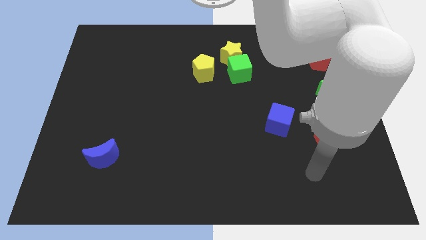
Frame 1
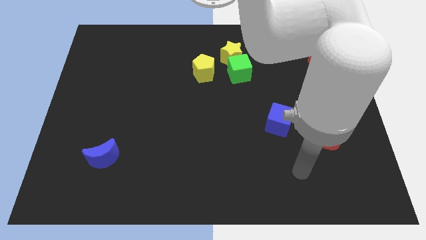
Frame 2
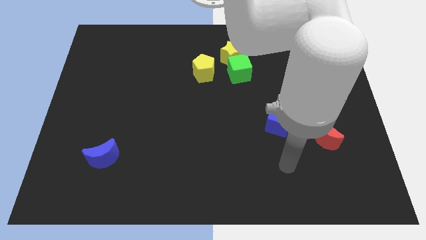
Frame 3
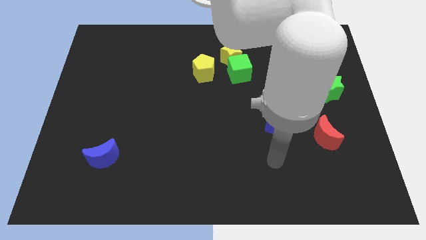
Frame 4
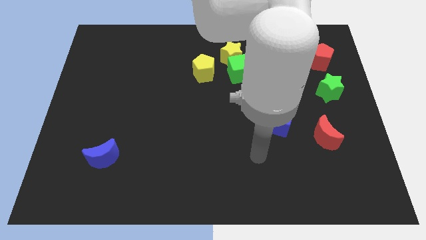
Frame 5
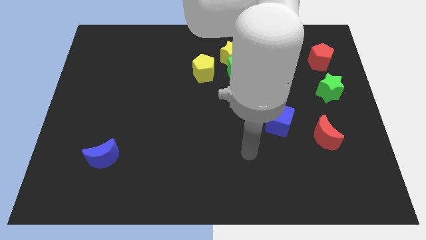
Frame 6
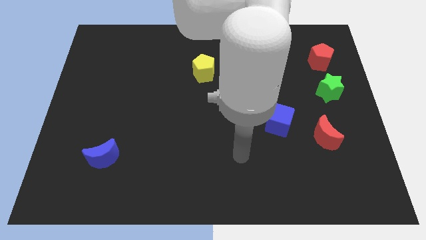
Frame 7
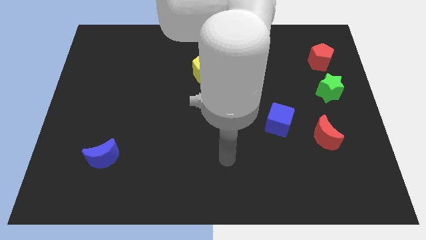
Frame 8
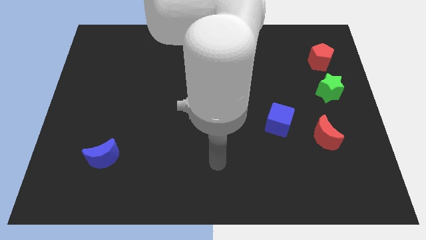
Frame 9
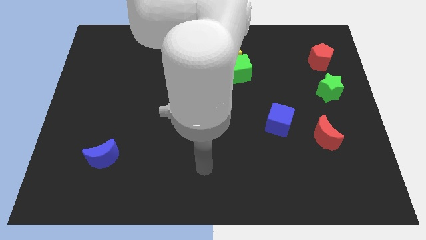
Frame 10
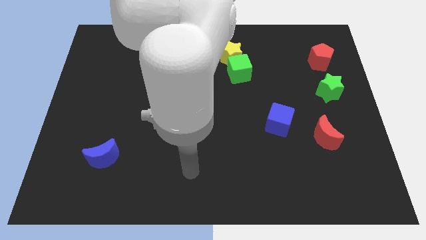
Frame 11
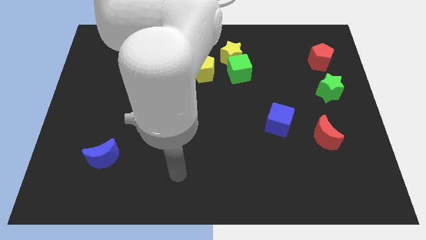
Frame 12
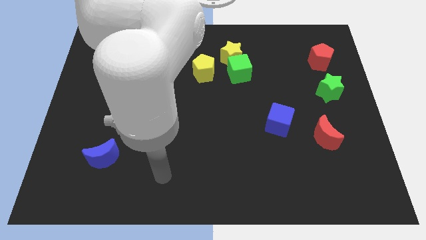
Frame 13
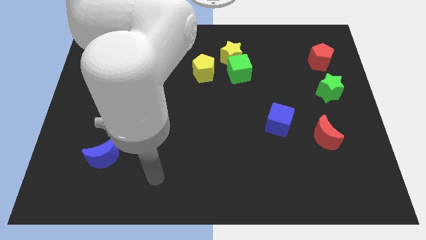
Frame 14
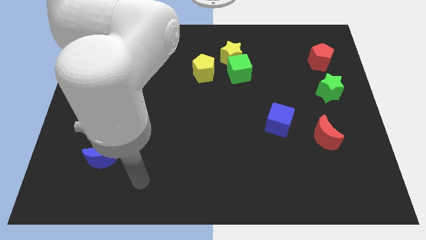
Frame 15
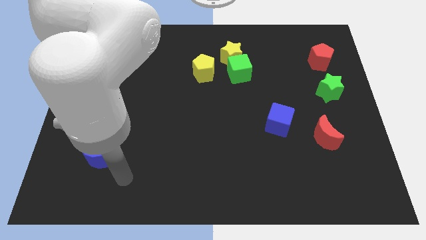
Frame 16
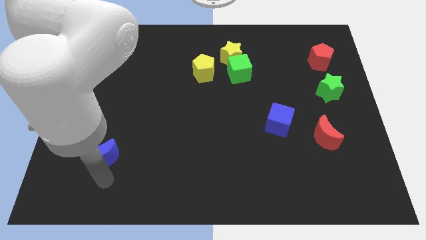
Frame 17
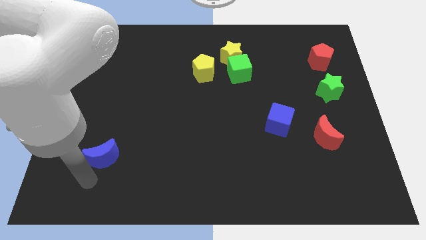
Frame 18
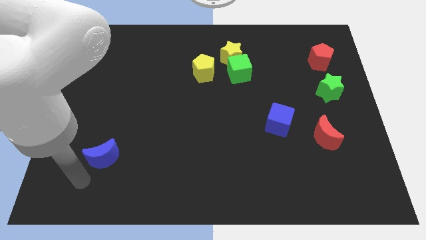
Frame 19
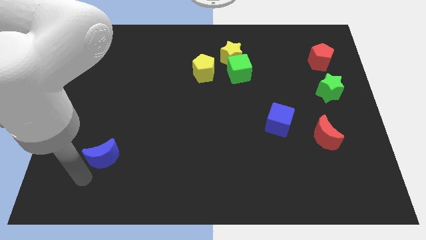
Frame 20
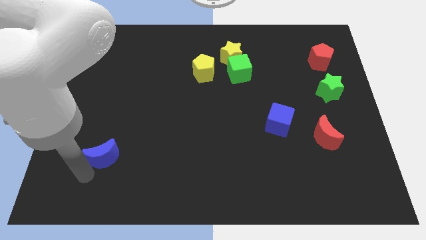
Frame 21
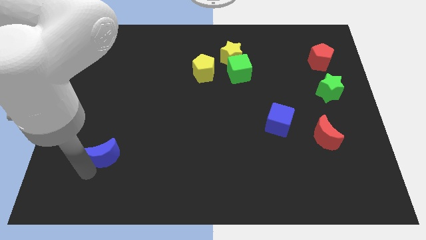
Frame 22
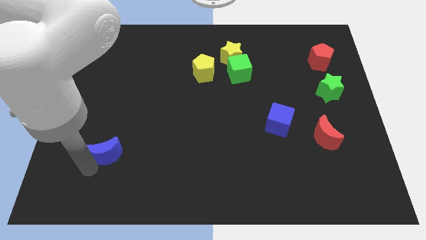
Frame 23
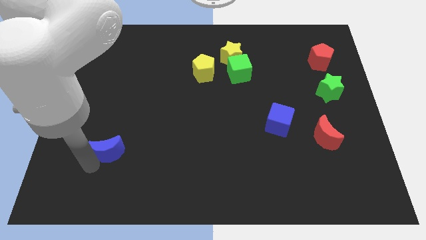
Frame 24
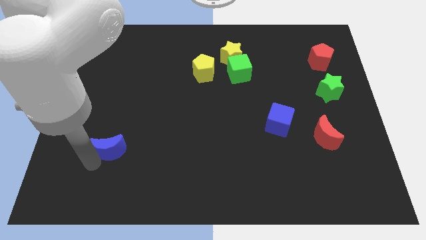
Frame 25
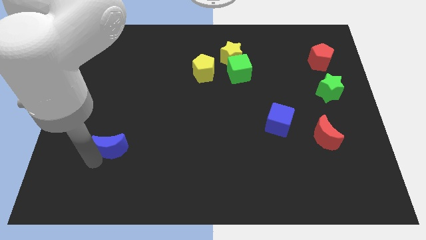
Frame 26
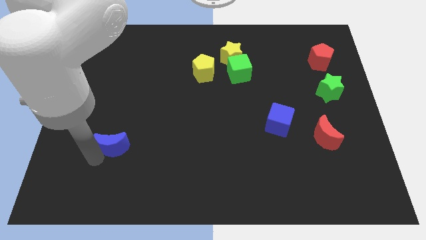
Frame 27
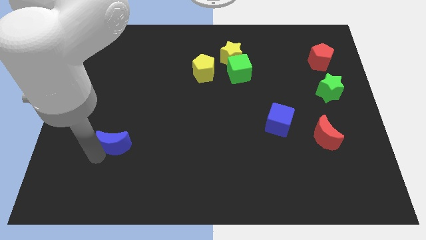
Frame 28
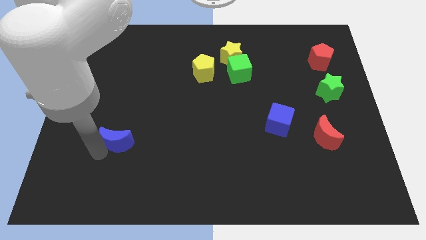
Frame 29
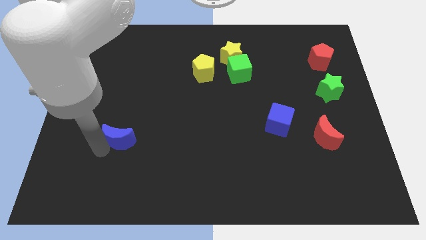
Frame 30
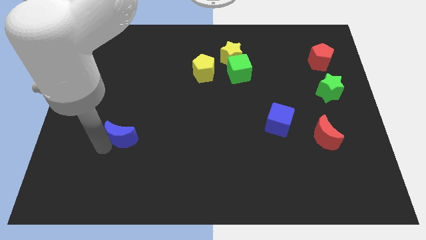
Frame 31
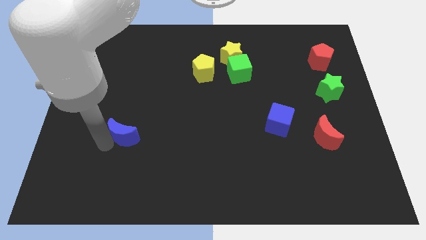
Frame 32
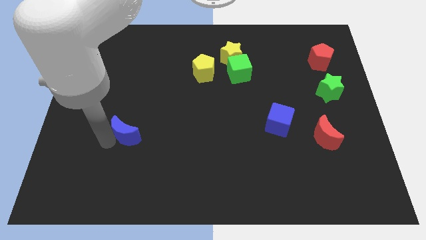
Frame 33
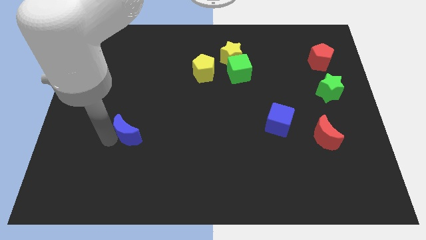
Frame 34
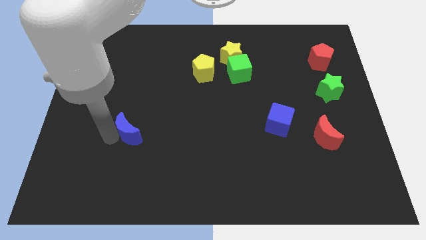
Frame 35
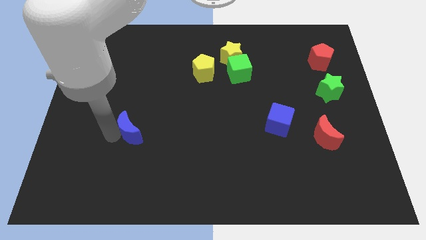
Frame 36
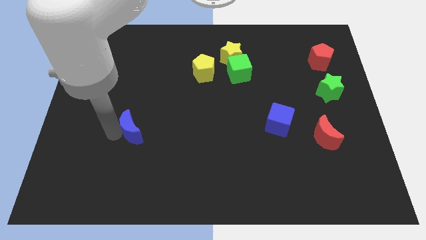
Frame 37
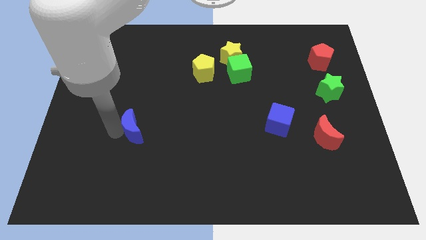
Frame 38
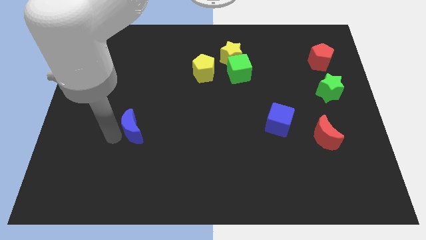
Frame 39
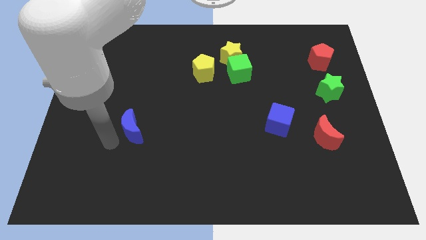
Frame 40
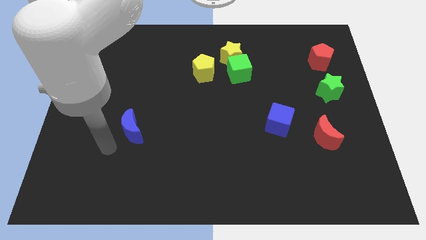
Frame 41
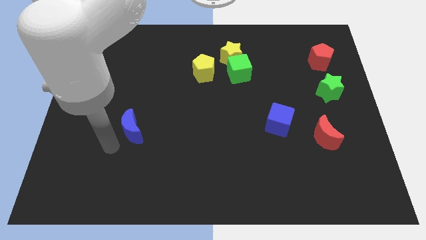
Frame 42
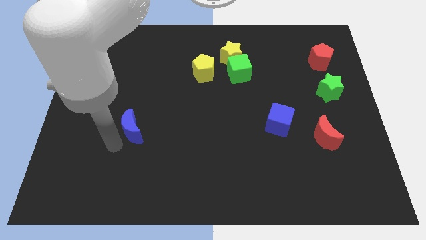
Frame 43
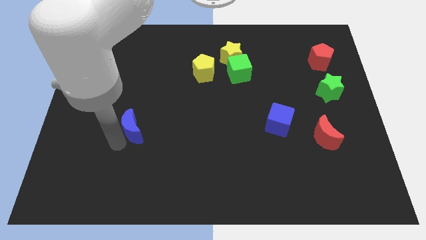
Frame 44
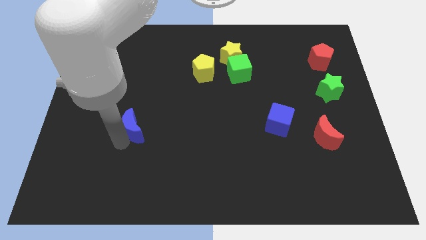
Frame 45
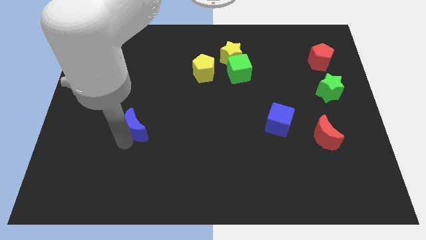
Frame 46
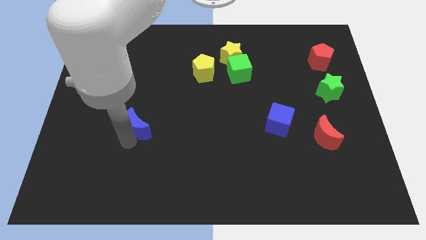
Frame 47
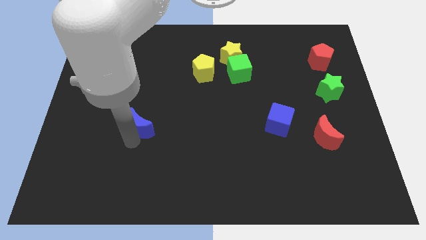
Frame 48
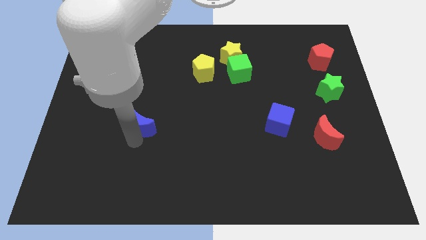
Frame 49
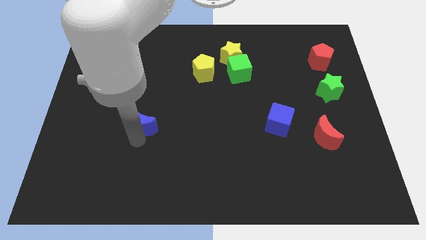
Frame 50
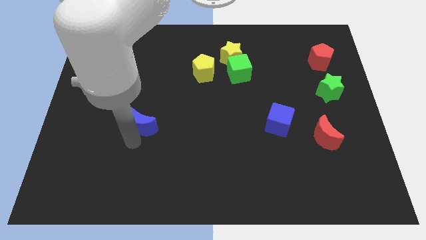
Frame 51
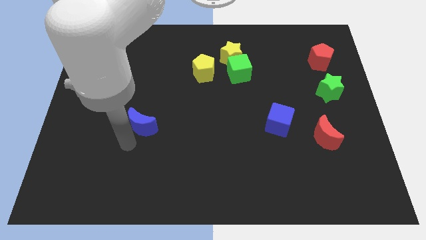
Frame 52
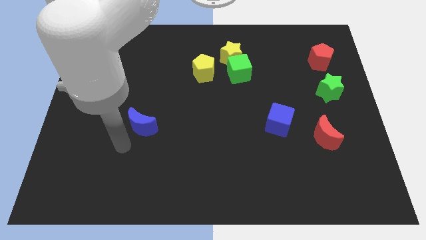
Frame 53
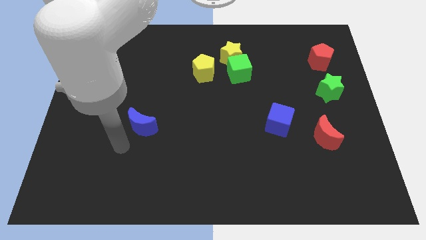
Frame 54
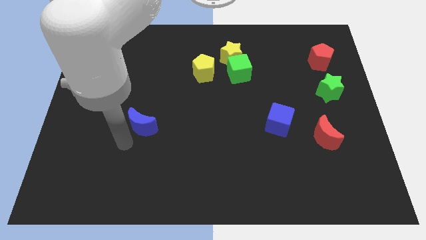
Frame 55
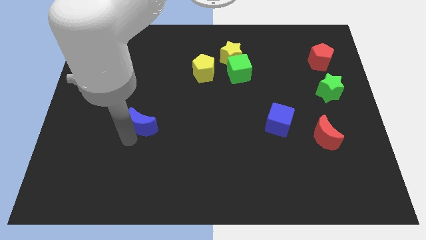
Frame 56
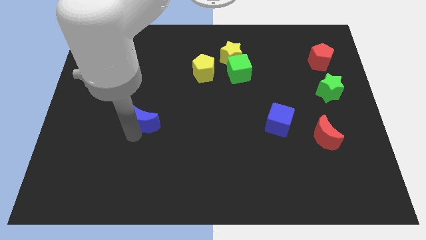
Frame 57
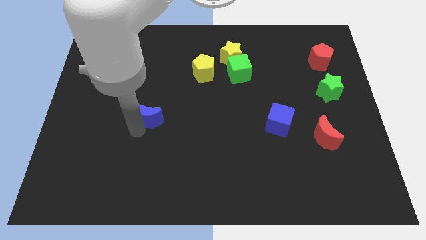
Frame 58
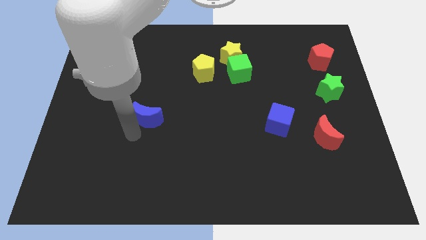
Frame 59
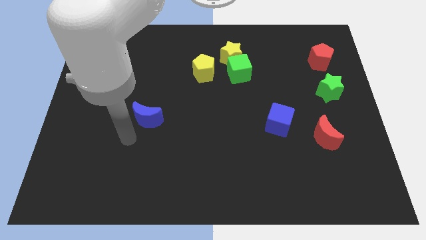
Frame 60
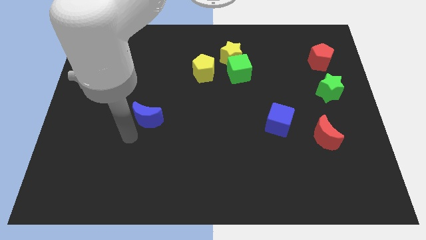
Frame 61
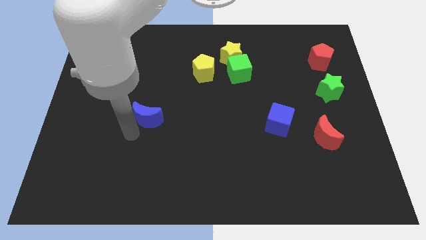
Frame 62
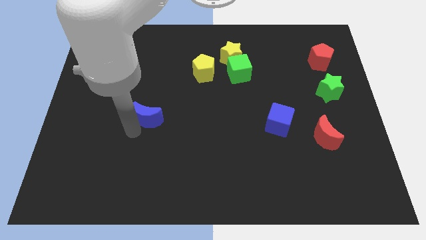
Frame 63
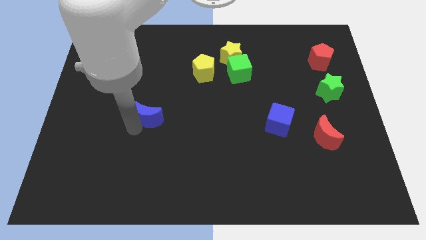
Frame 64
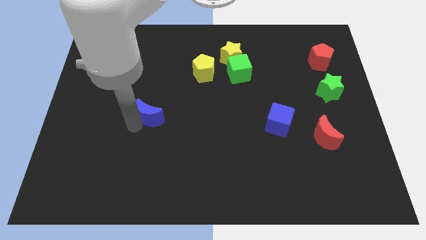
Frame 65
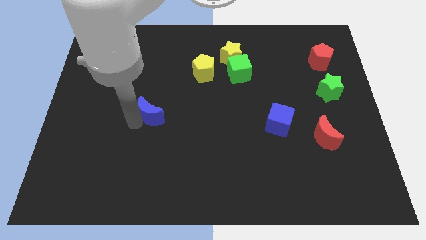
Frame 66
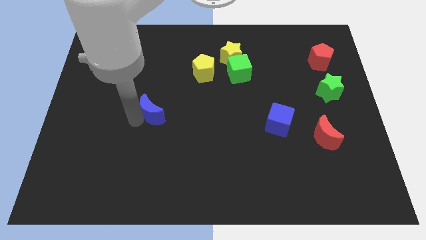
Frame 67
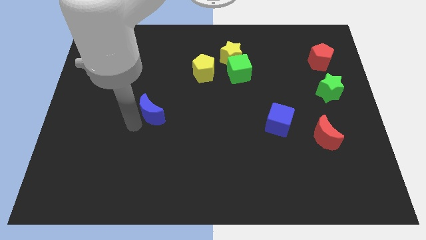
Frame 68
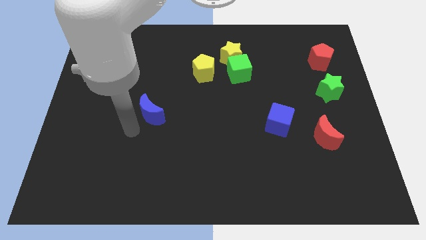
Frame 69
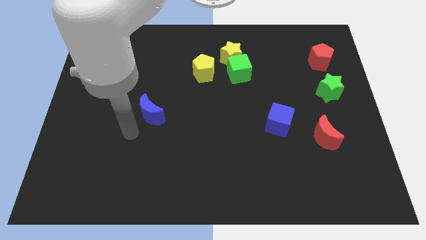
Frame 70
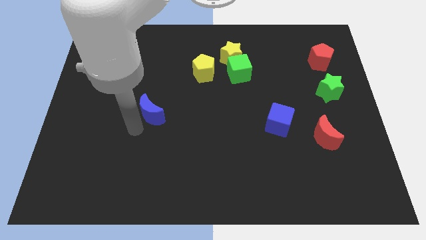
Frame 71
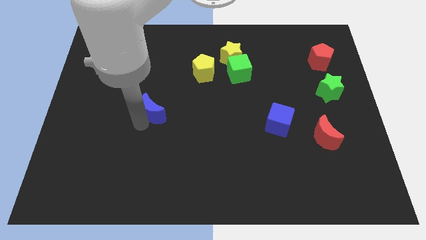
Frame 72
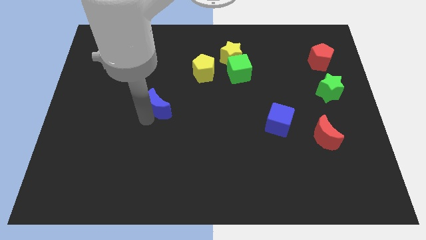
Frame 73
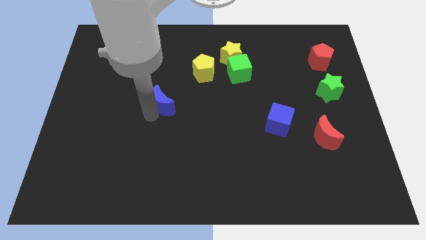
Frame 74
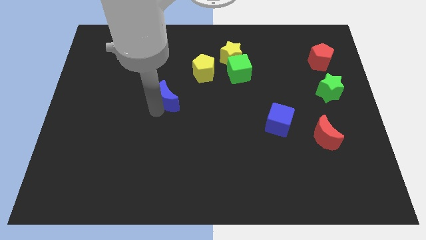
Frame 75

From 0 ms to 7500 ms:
slide the blue moon to the bottom left side of the yellow pentagon
